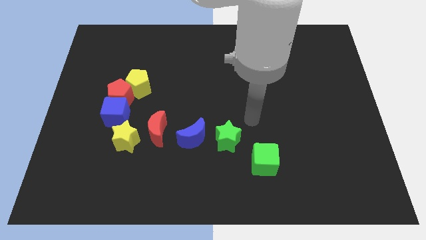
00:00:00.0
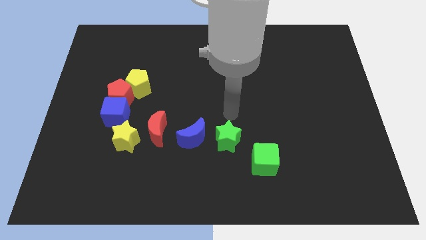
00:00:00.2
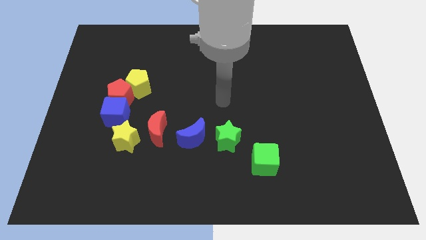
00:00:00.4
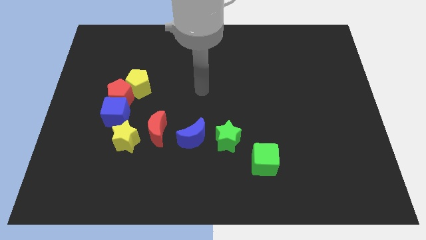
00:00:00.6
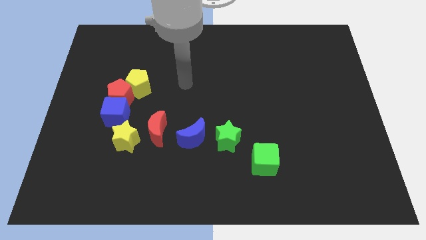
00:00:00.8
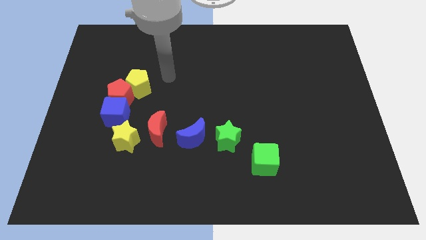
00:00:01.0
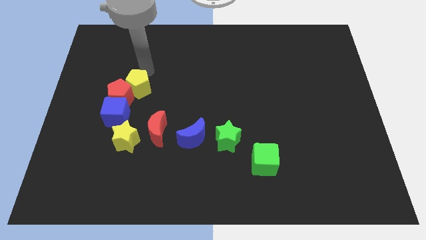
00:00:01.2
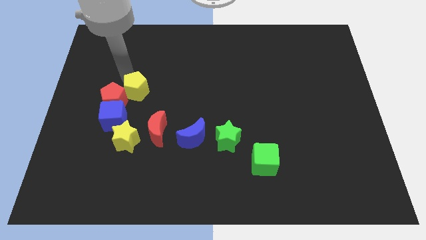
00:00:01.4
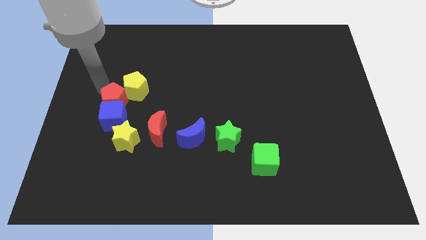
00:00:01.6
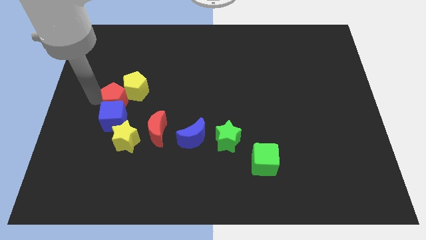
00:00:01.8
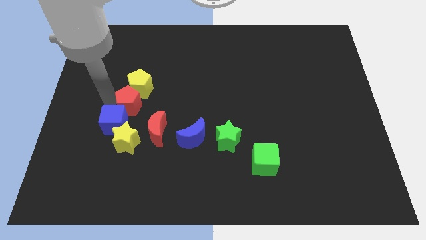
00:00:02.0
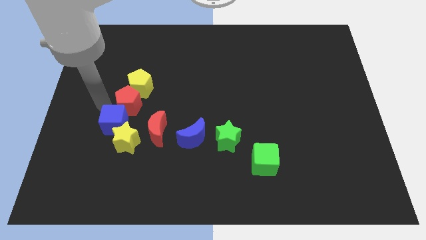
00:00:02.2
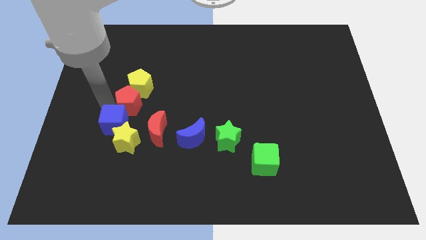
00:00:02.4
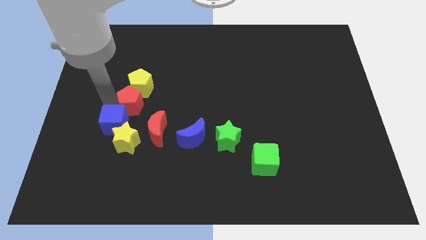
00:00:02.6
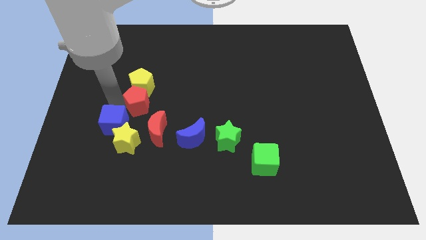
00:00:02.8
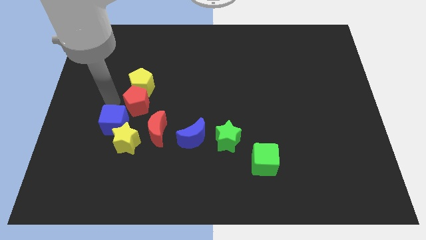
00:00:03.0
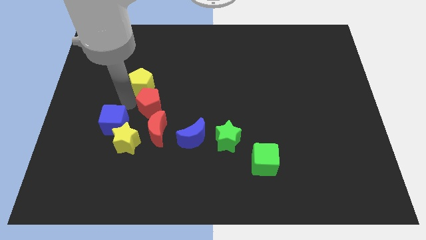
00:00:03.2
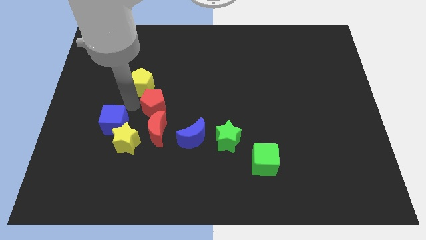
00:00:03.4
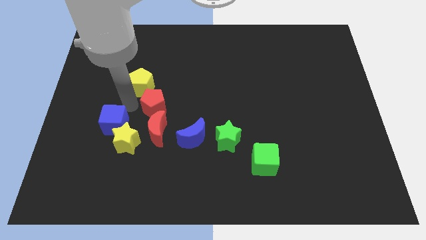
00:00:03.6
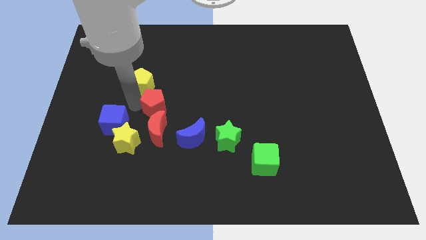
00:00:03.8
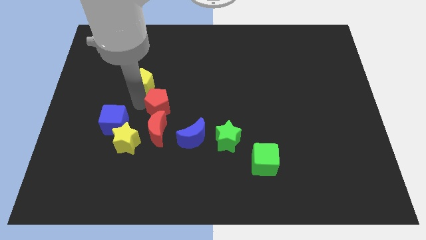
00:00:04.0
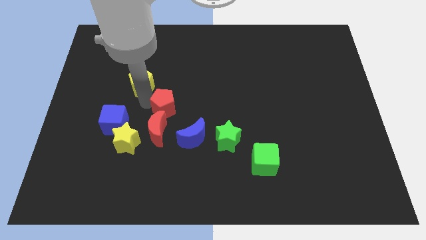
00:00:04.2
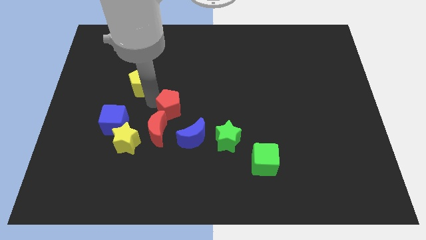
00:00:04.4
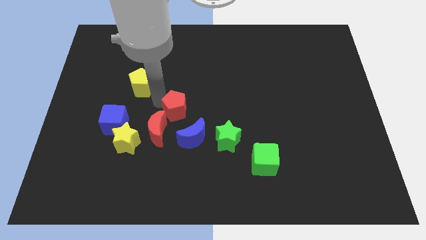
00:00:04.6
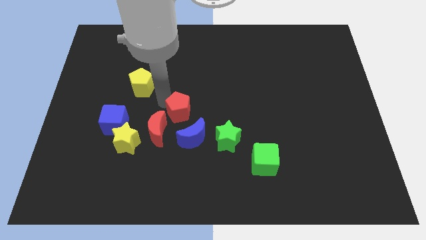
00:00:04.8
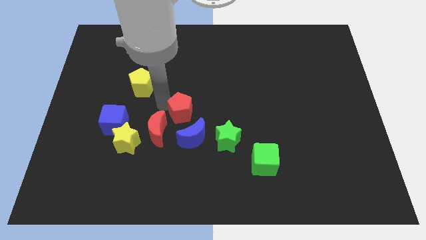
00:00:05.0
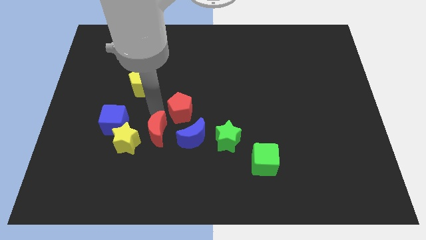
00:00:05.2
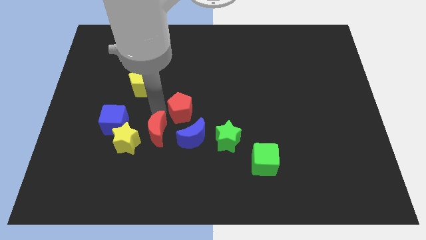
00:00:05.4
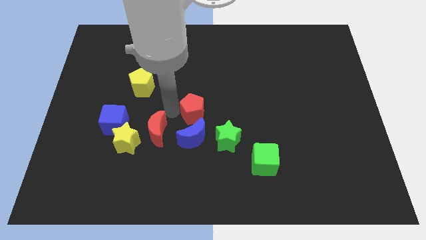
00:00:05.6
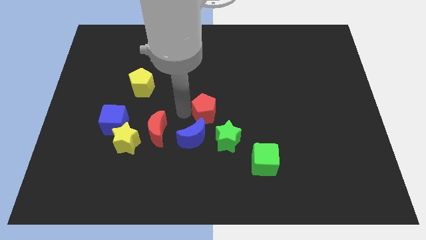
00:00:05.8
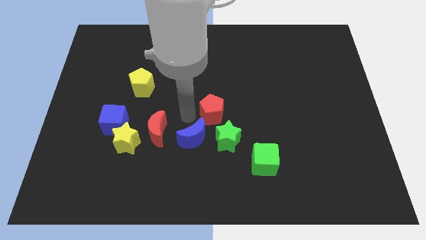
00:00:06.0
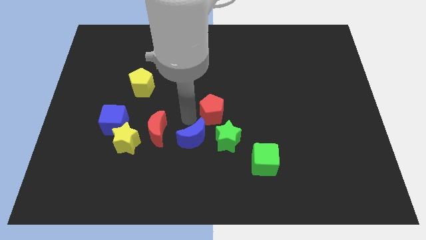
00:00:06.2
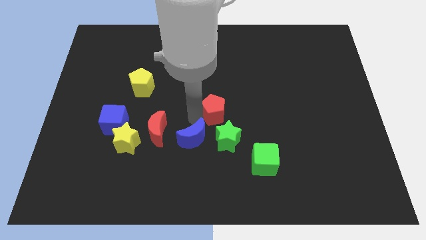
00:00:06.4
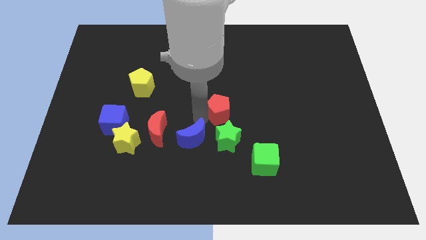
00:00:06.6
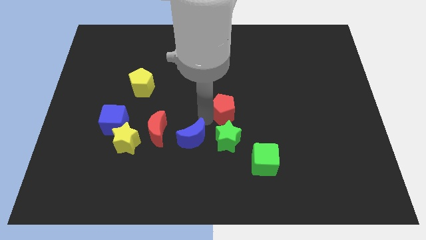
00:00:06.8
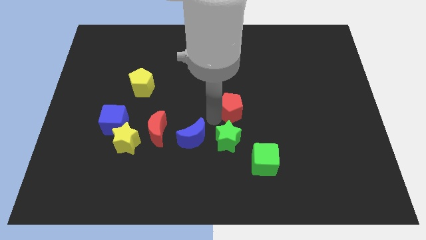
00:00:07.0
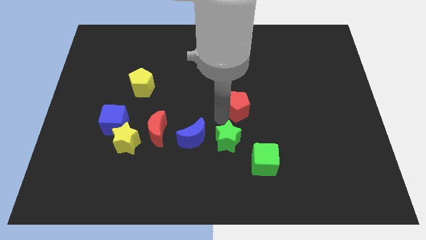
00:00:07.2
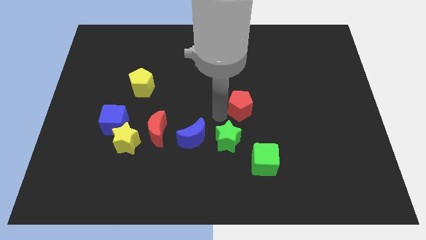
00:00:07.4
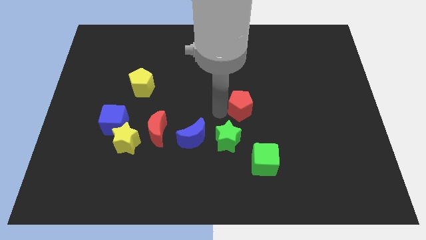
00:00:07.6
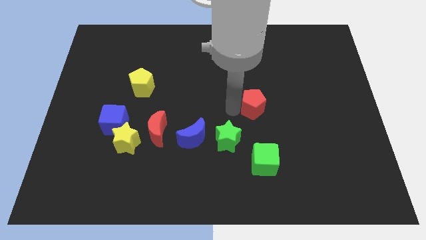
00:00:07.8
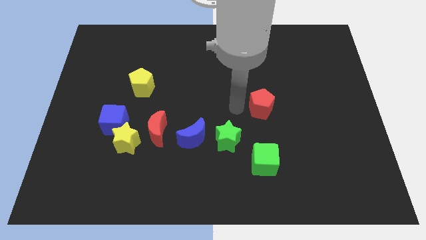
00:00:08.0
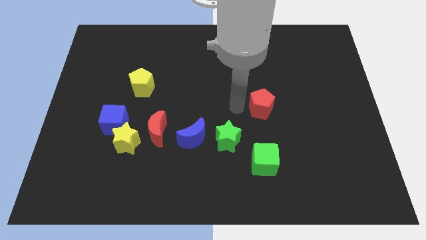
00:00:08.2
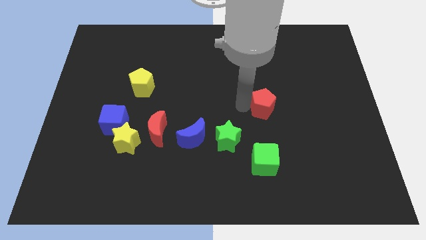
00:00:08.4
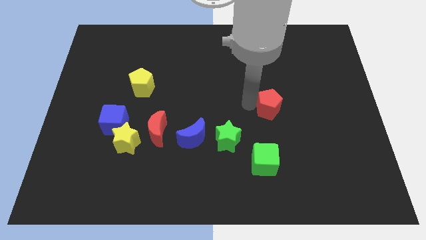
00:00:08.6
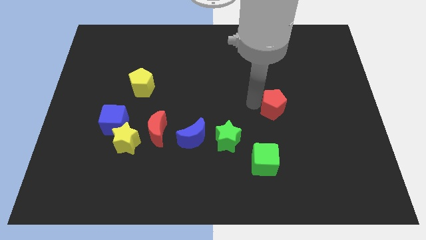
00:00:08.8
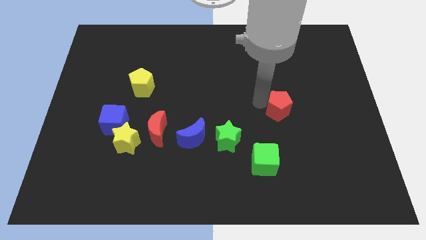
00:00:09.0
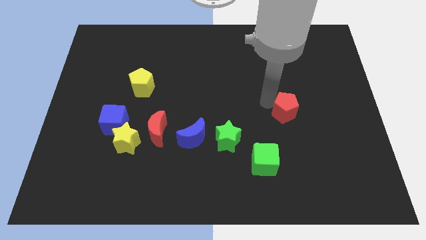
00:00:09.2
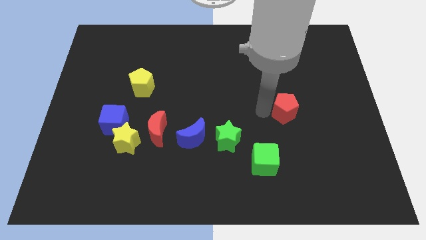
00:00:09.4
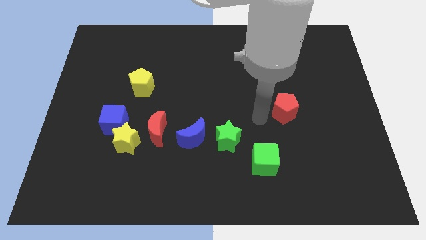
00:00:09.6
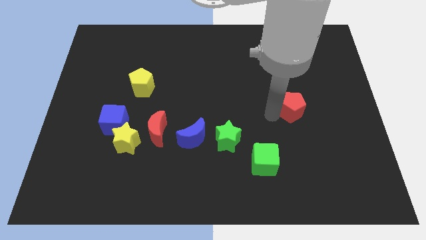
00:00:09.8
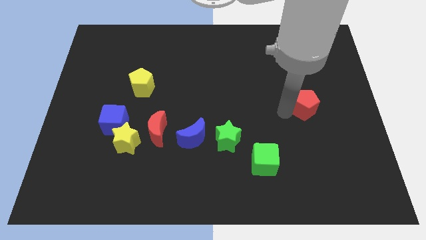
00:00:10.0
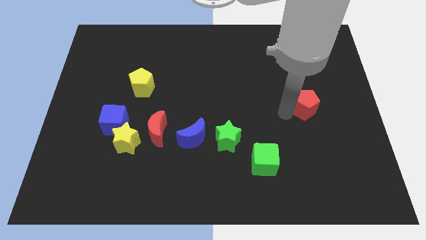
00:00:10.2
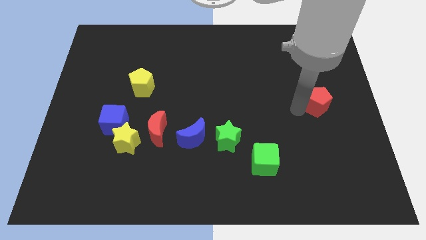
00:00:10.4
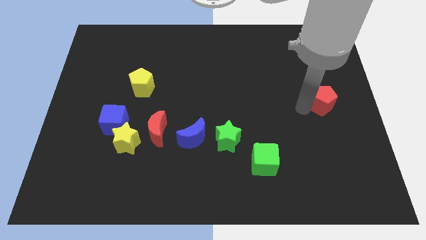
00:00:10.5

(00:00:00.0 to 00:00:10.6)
move the red pentagon to the right side of the board

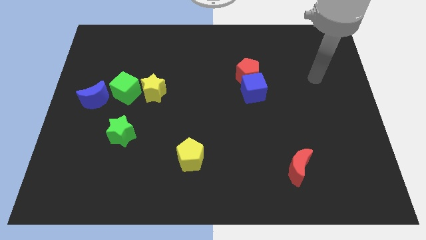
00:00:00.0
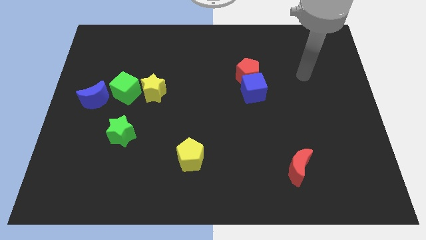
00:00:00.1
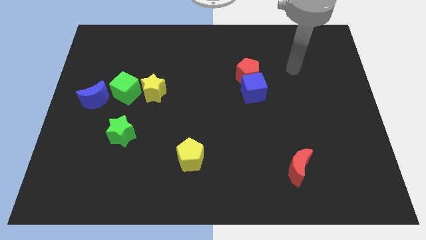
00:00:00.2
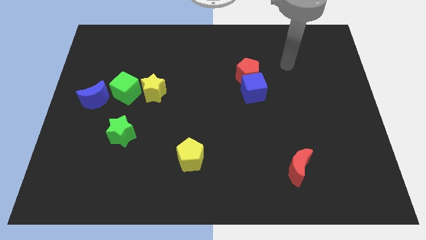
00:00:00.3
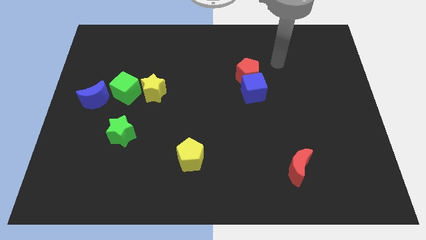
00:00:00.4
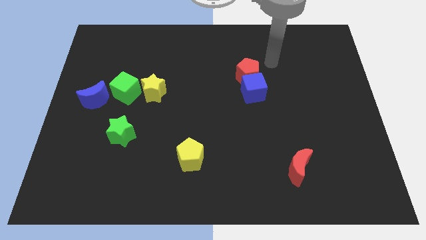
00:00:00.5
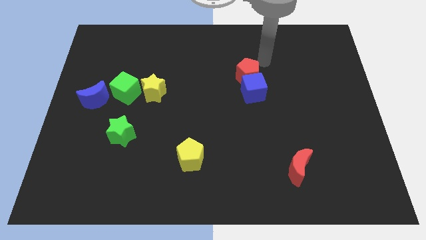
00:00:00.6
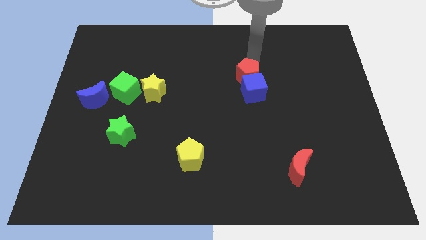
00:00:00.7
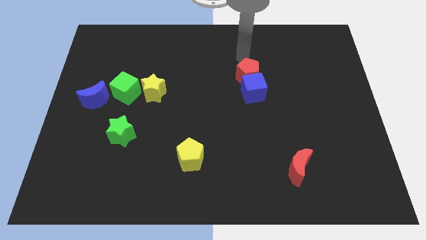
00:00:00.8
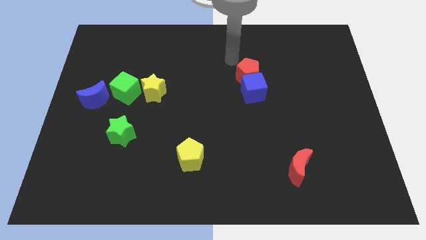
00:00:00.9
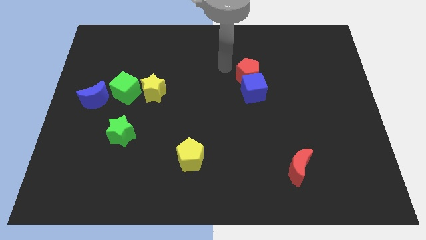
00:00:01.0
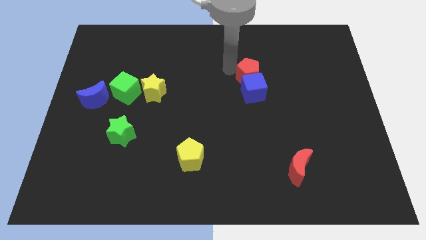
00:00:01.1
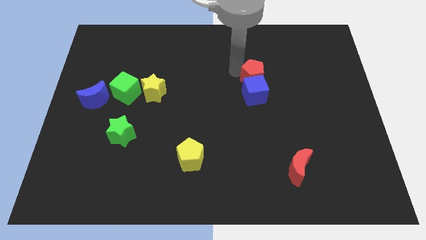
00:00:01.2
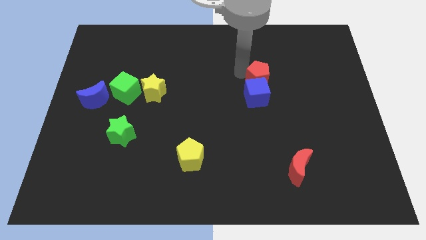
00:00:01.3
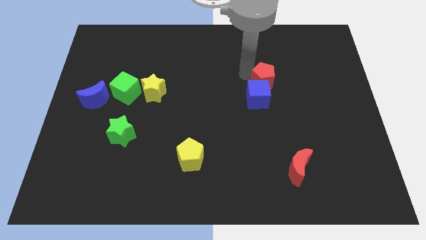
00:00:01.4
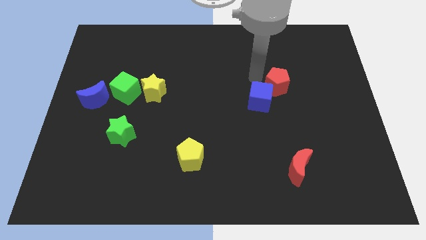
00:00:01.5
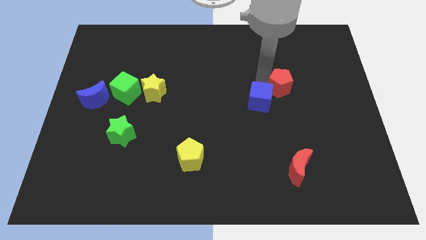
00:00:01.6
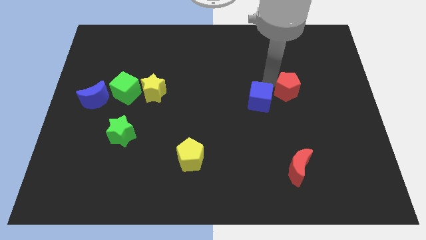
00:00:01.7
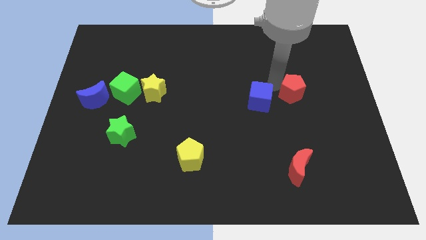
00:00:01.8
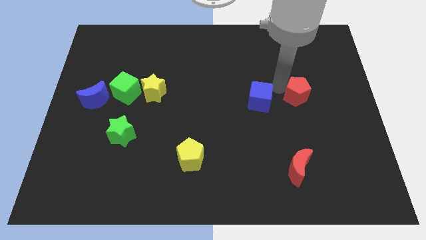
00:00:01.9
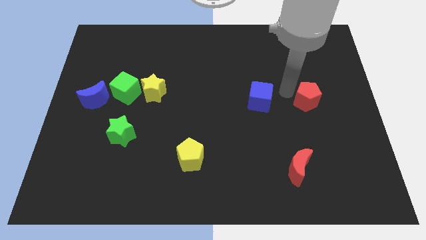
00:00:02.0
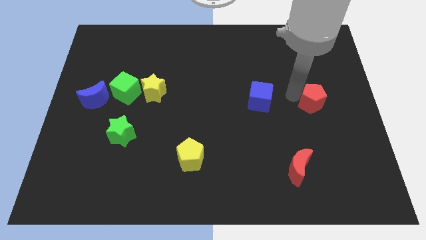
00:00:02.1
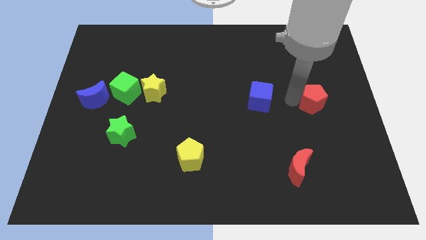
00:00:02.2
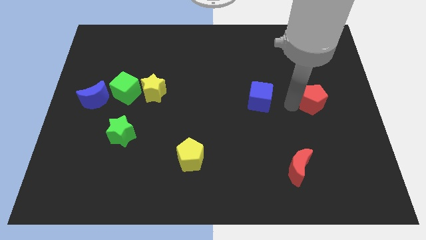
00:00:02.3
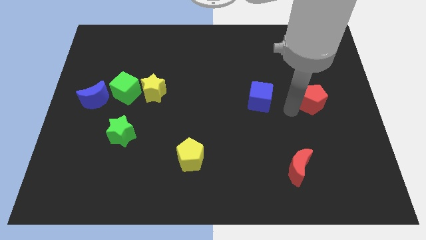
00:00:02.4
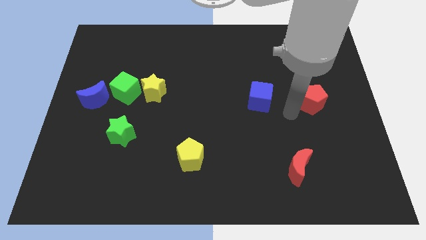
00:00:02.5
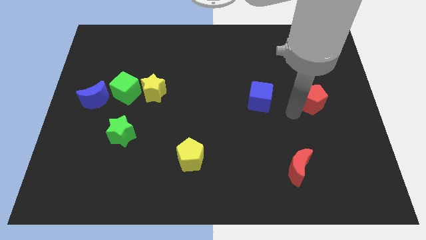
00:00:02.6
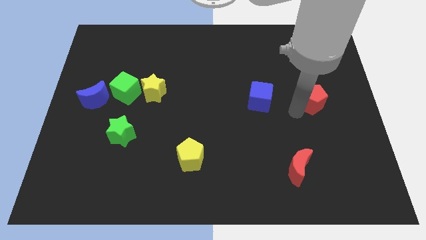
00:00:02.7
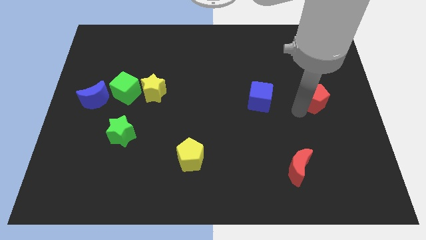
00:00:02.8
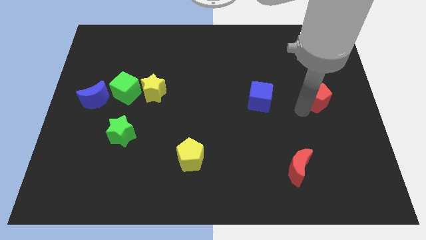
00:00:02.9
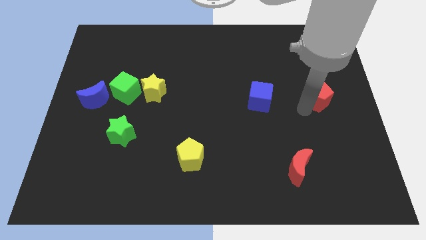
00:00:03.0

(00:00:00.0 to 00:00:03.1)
push the red pentagon to the right side of the board
